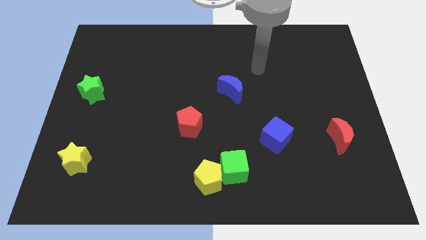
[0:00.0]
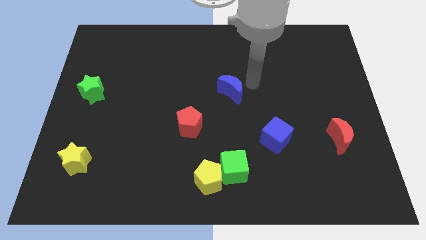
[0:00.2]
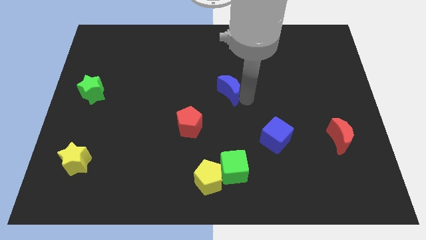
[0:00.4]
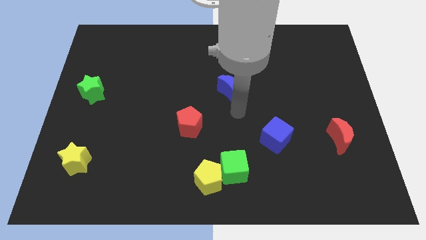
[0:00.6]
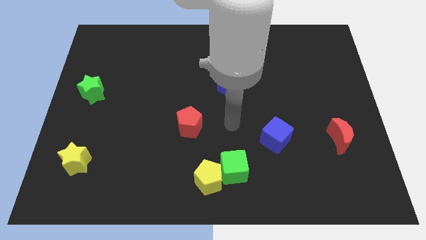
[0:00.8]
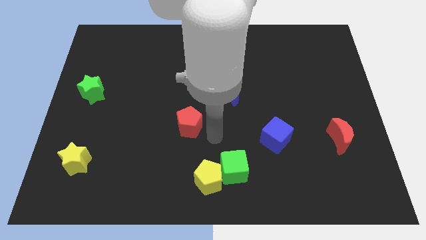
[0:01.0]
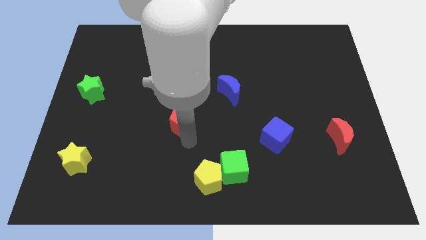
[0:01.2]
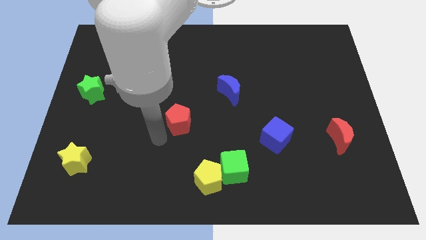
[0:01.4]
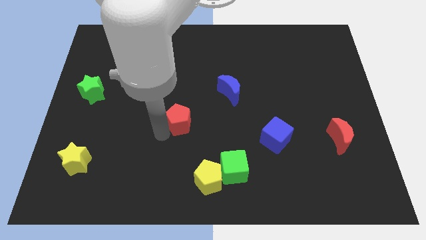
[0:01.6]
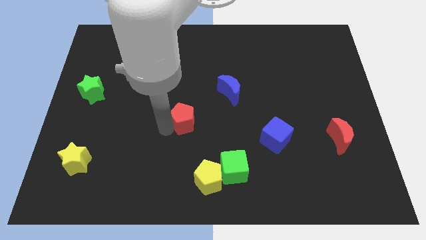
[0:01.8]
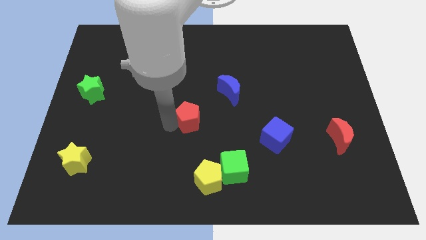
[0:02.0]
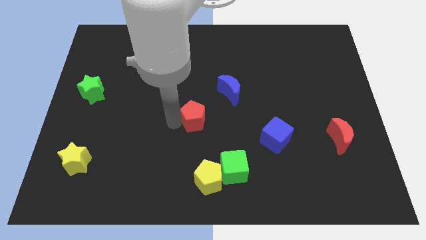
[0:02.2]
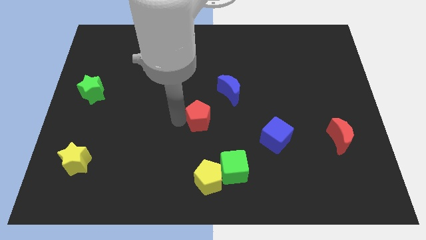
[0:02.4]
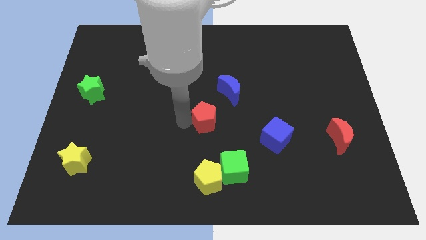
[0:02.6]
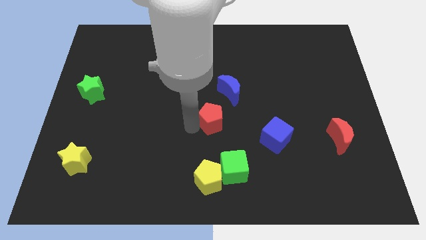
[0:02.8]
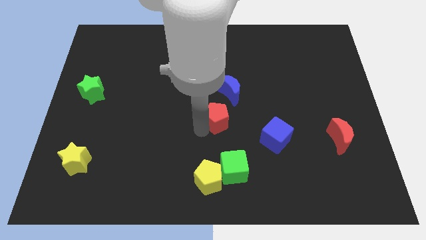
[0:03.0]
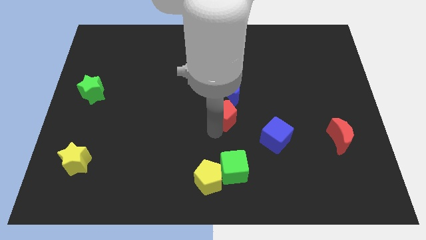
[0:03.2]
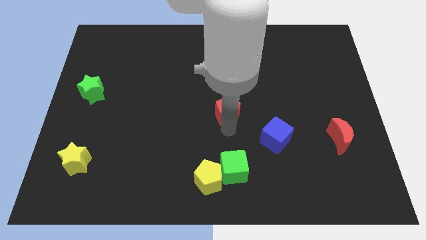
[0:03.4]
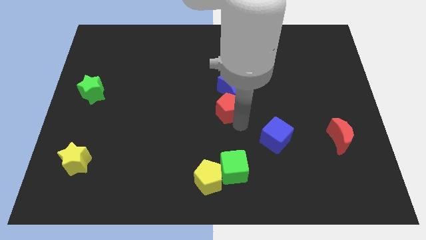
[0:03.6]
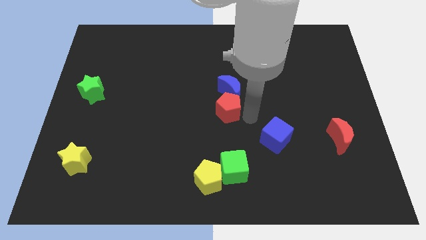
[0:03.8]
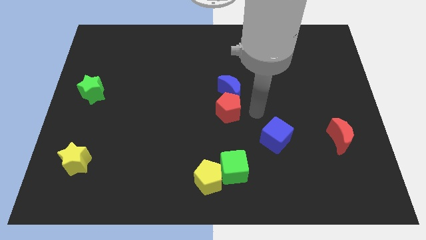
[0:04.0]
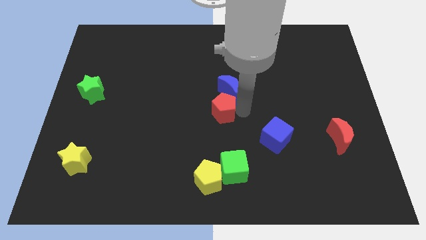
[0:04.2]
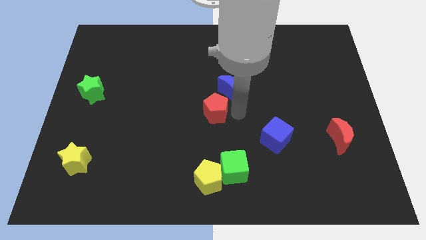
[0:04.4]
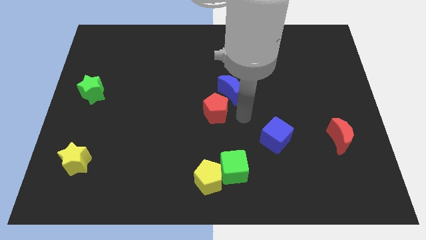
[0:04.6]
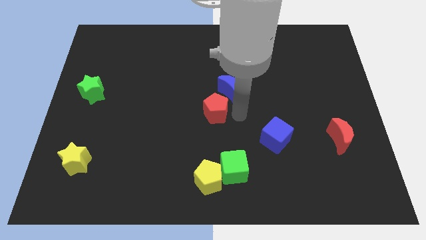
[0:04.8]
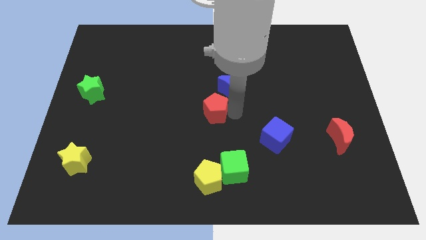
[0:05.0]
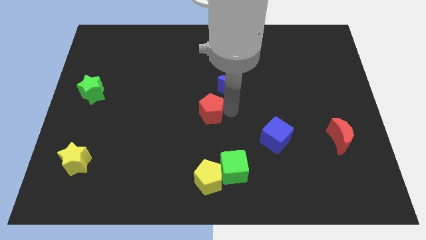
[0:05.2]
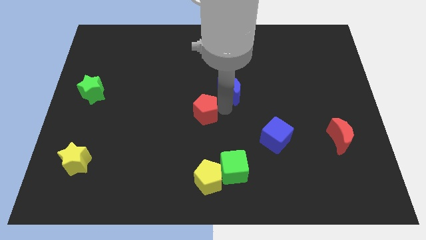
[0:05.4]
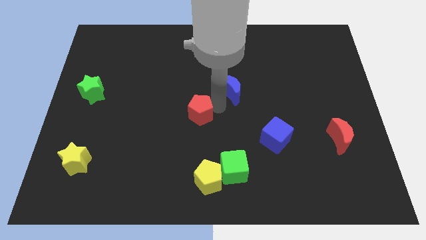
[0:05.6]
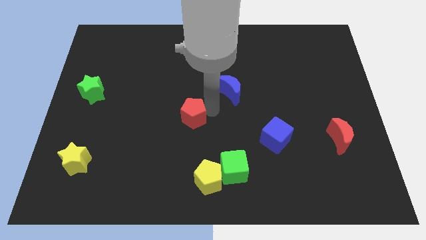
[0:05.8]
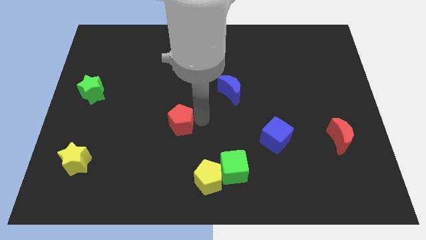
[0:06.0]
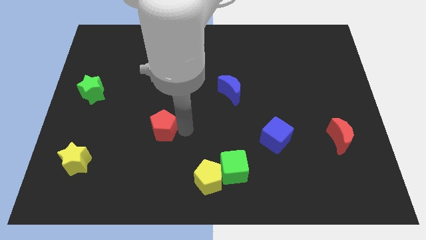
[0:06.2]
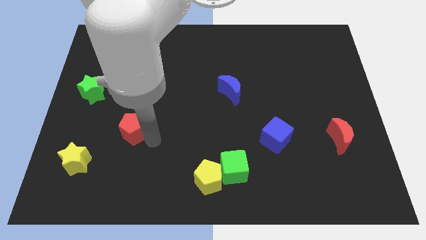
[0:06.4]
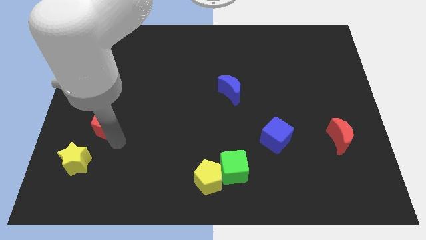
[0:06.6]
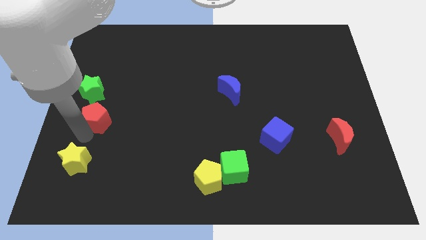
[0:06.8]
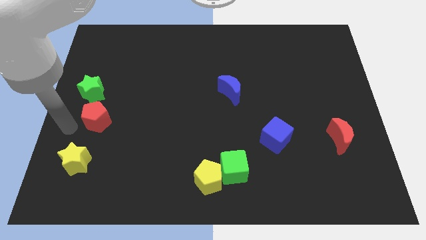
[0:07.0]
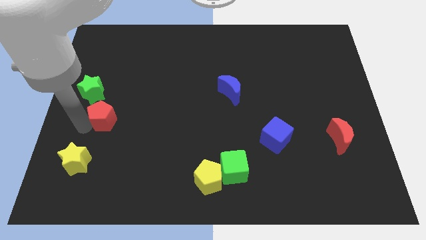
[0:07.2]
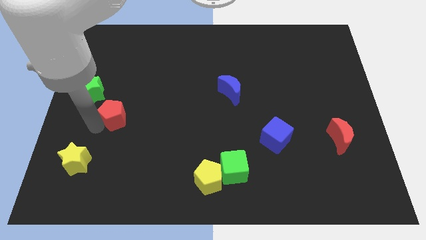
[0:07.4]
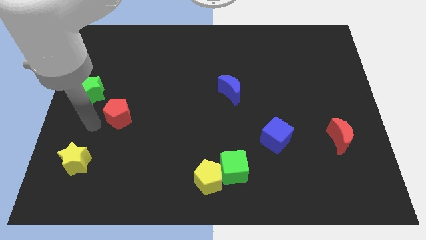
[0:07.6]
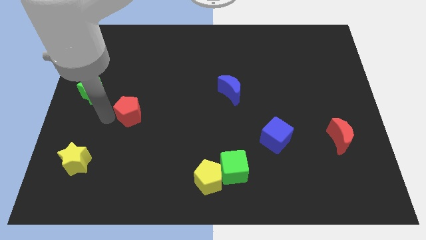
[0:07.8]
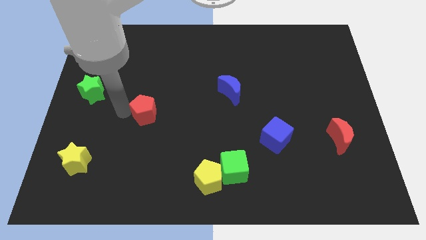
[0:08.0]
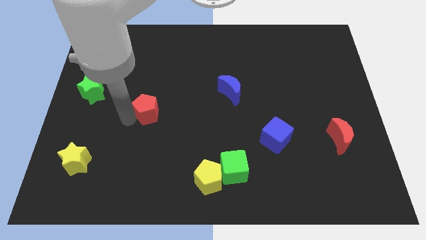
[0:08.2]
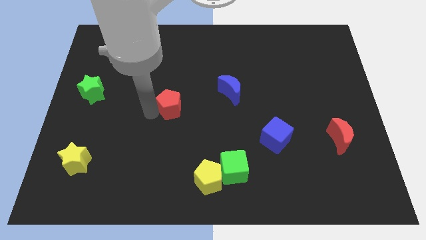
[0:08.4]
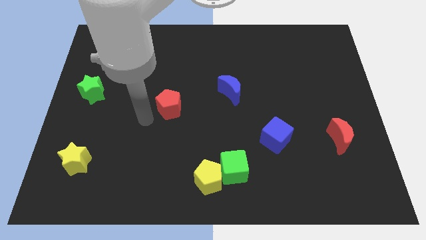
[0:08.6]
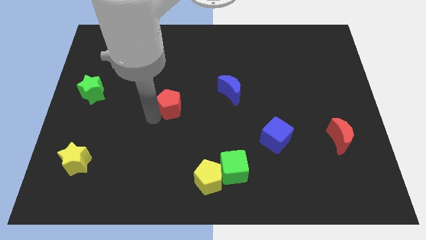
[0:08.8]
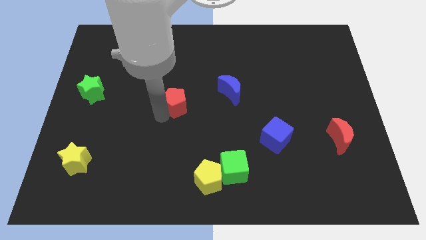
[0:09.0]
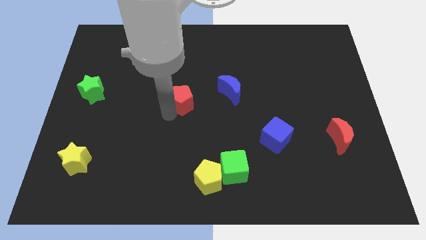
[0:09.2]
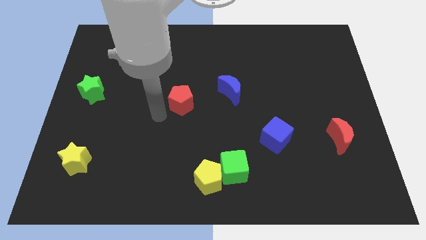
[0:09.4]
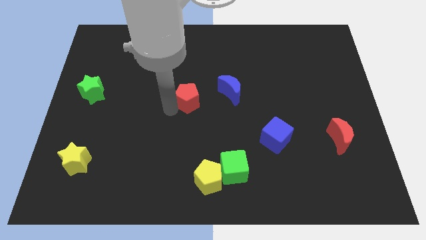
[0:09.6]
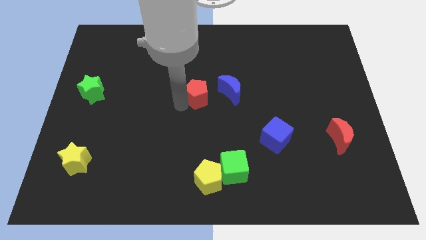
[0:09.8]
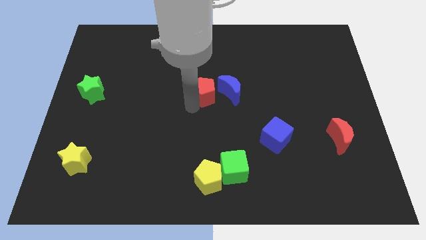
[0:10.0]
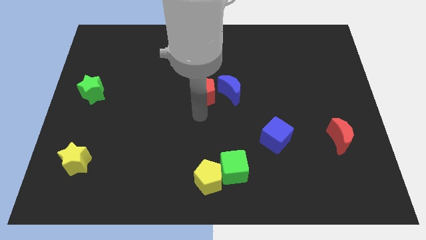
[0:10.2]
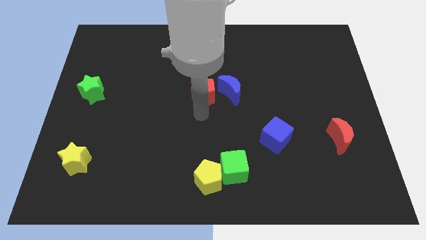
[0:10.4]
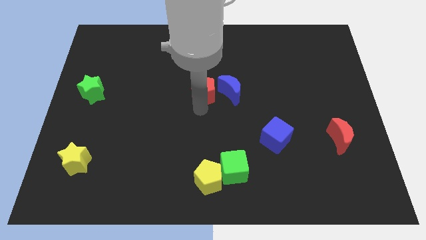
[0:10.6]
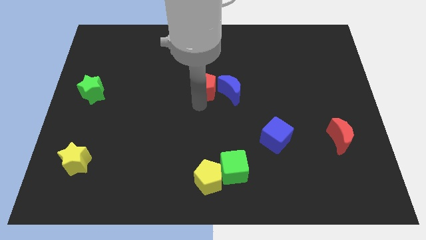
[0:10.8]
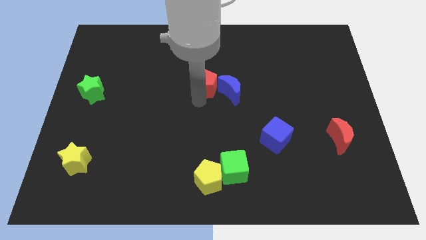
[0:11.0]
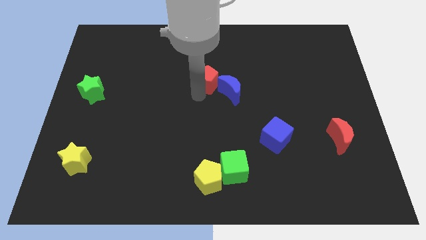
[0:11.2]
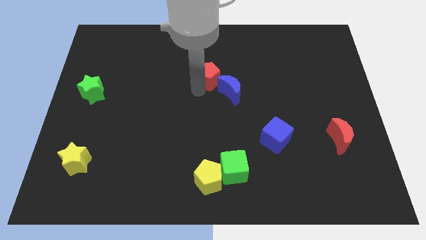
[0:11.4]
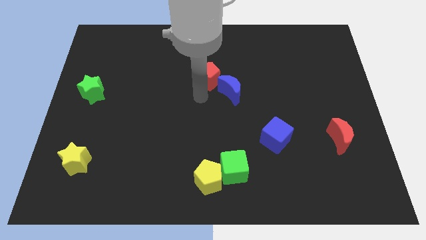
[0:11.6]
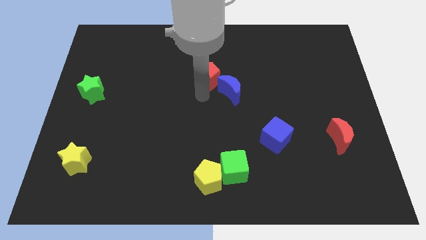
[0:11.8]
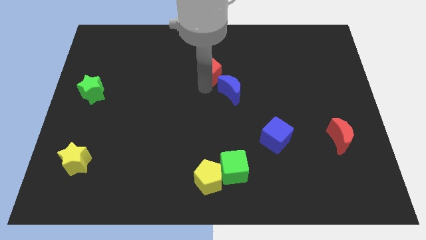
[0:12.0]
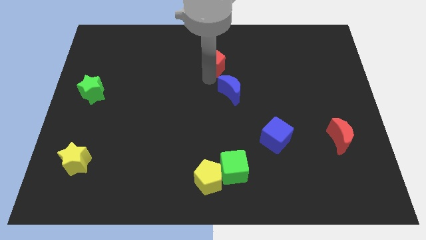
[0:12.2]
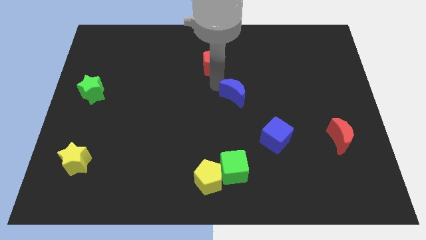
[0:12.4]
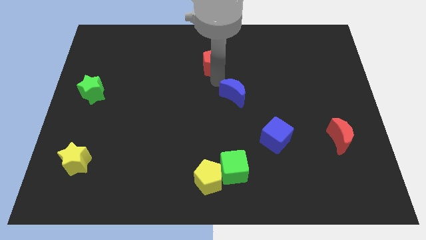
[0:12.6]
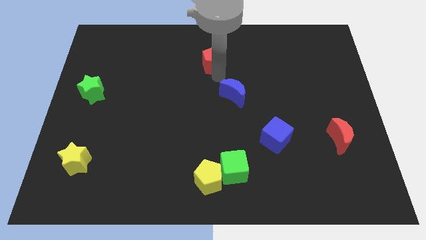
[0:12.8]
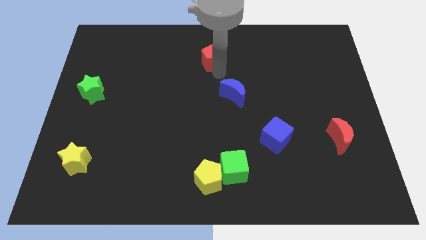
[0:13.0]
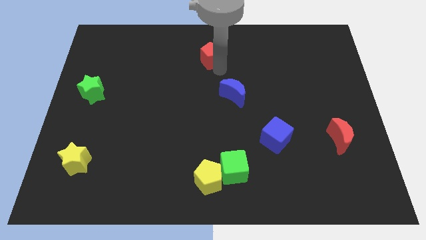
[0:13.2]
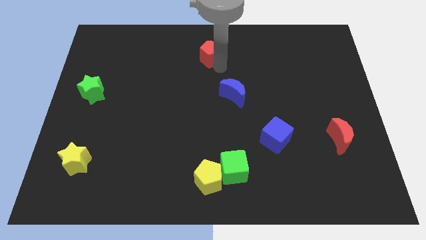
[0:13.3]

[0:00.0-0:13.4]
slide the red pentagon to the top side
